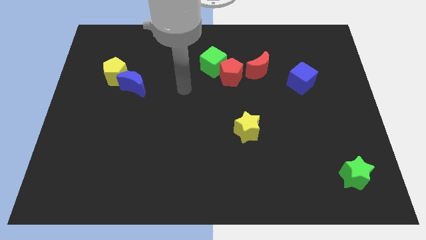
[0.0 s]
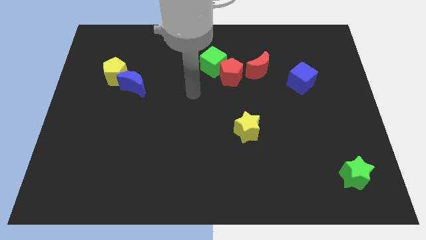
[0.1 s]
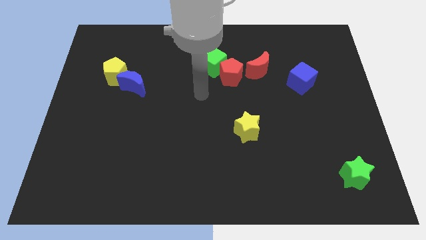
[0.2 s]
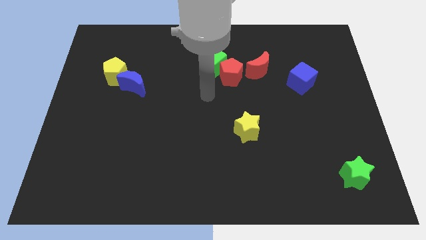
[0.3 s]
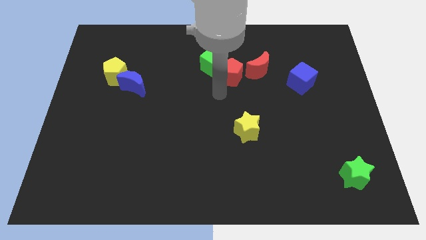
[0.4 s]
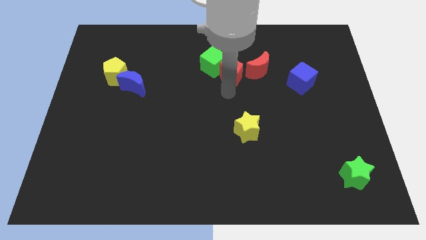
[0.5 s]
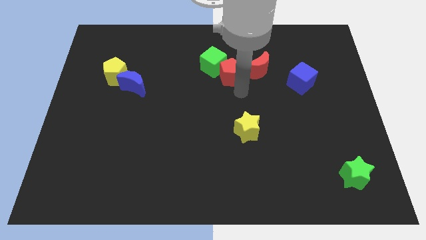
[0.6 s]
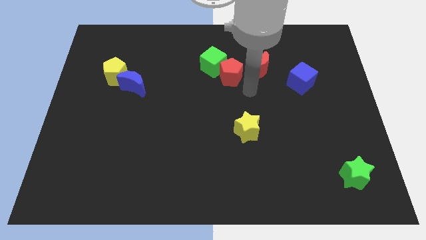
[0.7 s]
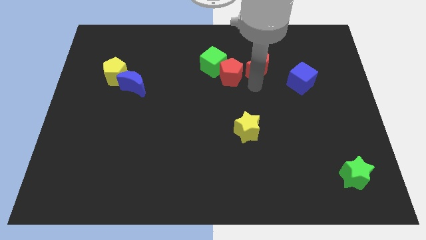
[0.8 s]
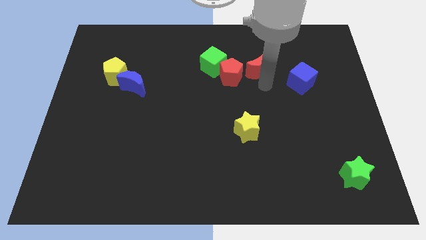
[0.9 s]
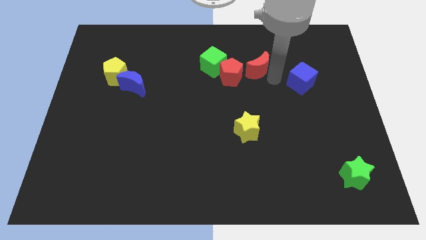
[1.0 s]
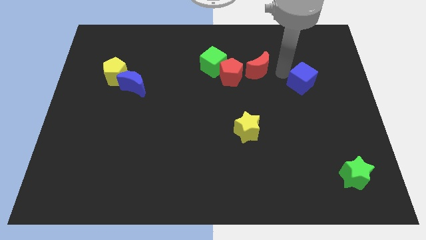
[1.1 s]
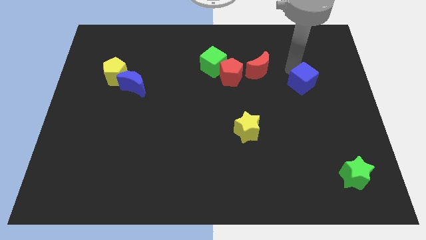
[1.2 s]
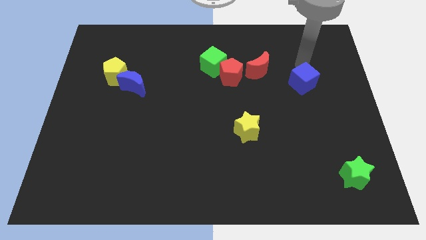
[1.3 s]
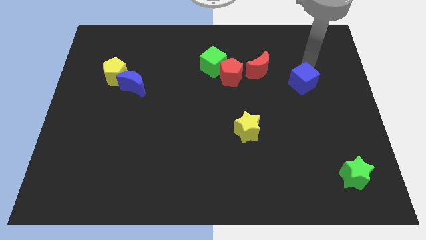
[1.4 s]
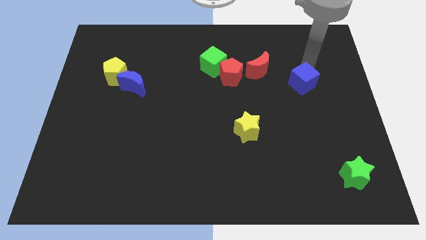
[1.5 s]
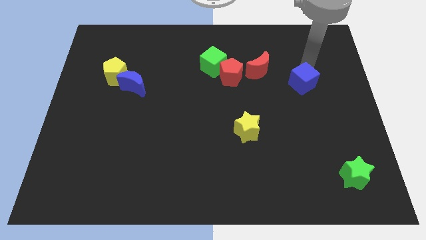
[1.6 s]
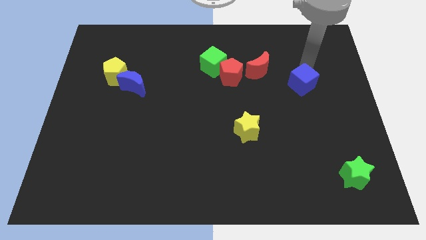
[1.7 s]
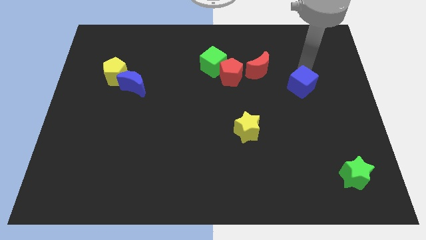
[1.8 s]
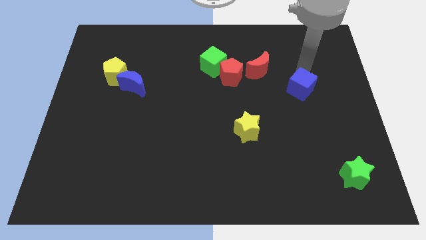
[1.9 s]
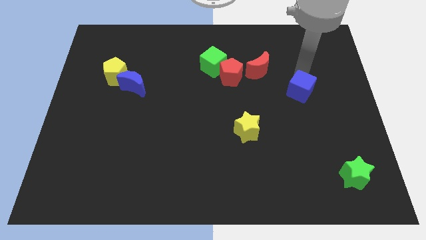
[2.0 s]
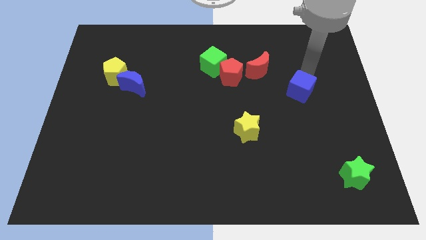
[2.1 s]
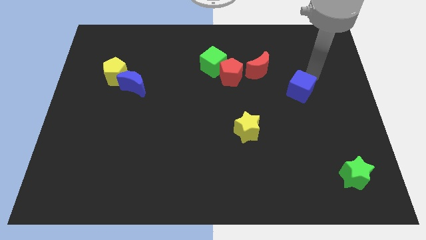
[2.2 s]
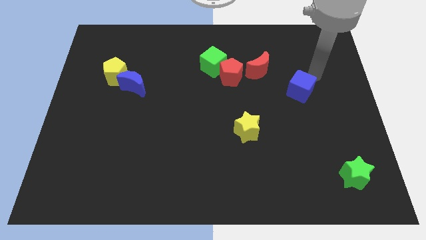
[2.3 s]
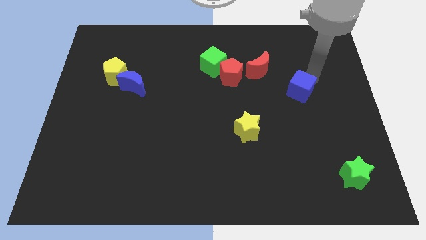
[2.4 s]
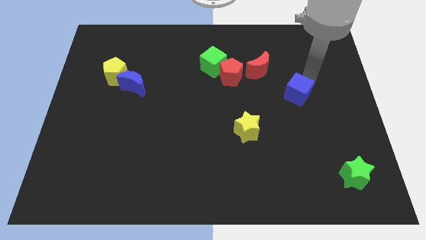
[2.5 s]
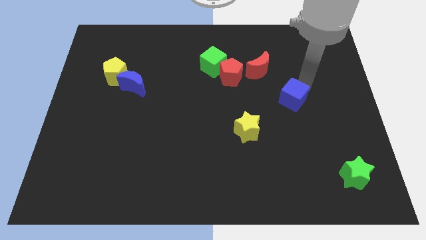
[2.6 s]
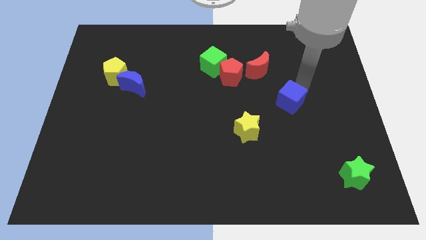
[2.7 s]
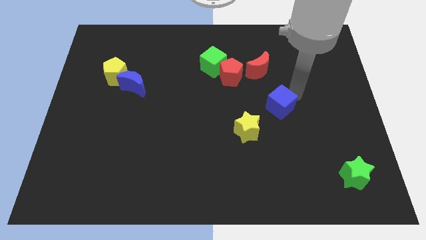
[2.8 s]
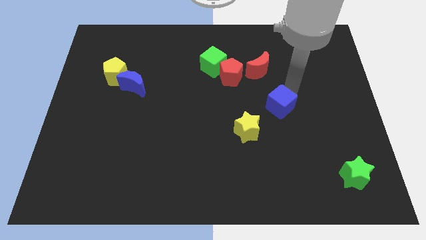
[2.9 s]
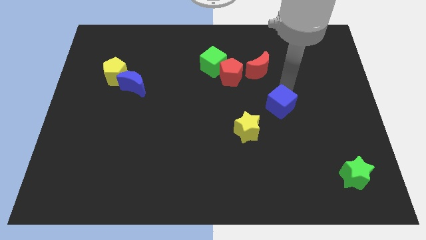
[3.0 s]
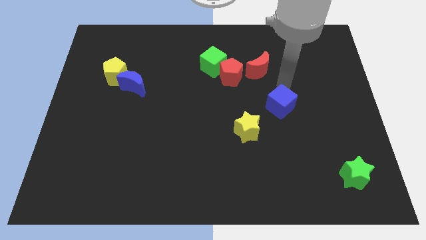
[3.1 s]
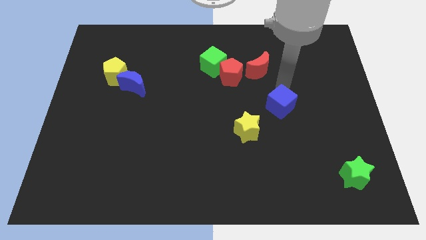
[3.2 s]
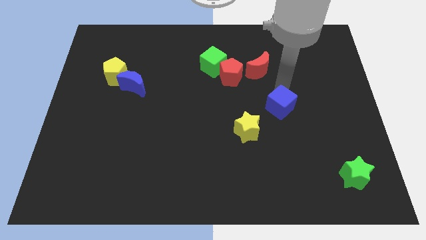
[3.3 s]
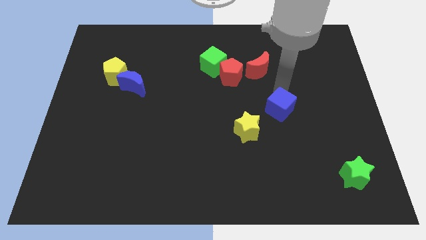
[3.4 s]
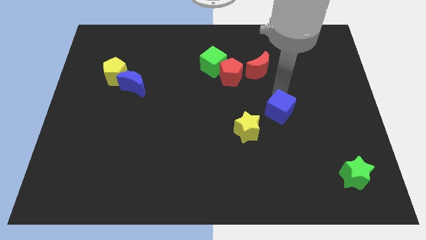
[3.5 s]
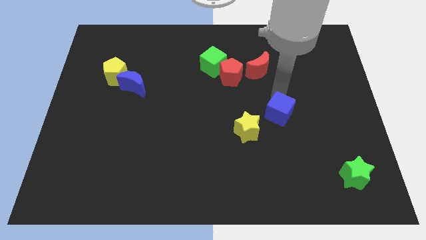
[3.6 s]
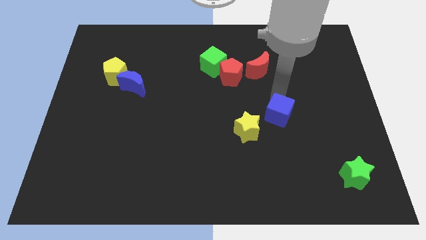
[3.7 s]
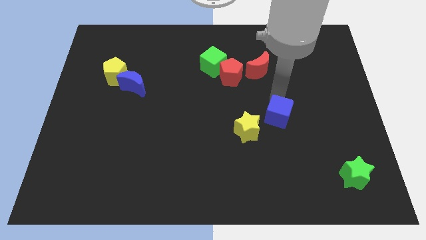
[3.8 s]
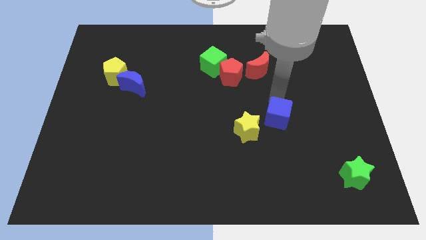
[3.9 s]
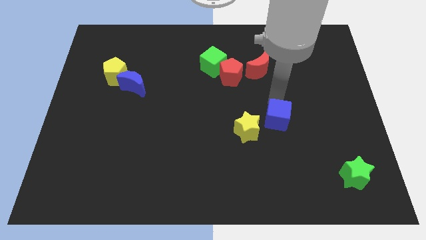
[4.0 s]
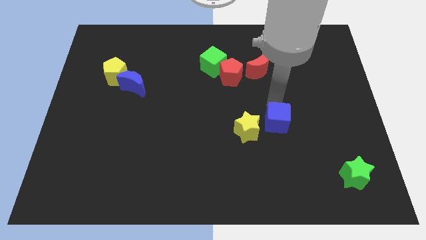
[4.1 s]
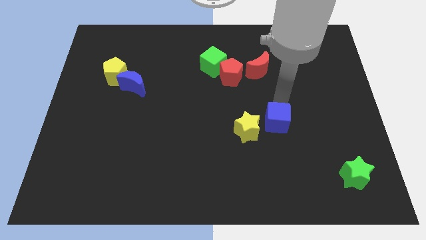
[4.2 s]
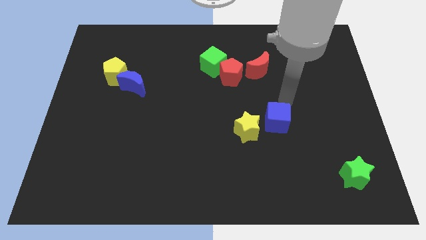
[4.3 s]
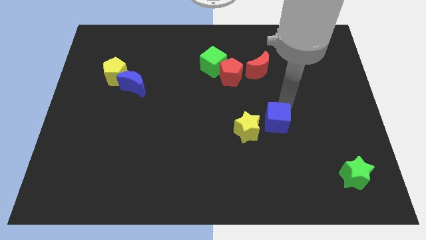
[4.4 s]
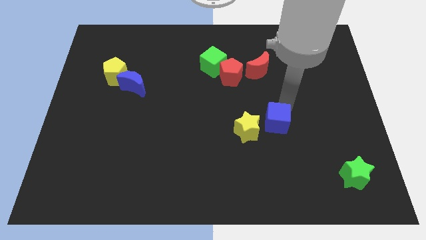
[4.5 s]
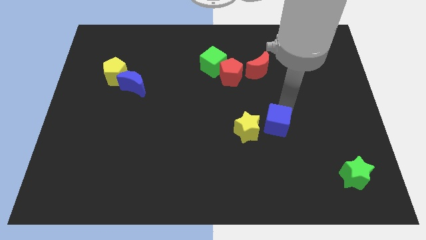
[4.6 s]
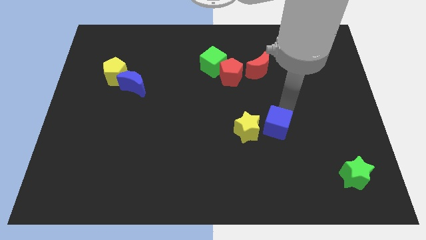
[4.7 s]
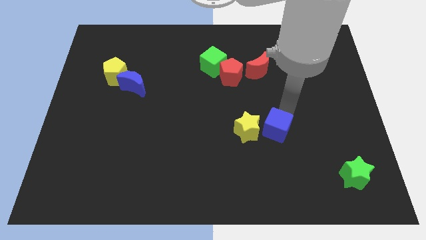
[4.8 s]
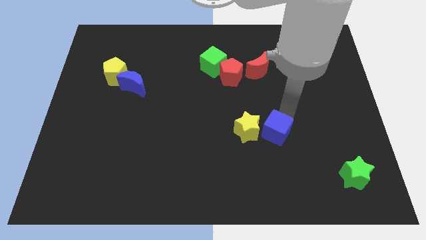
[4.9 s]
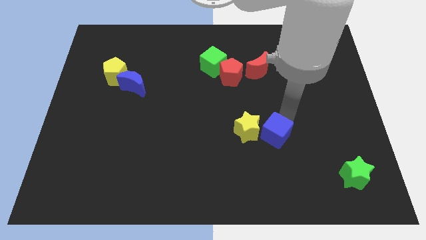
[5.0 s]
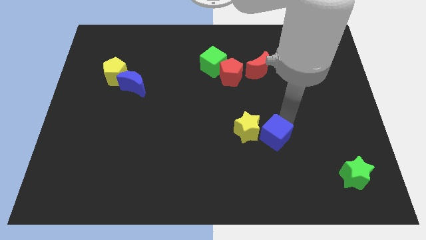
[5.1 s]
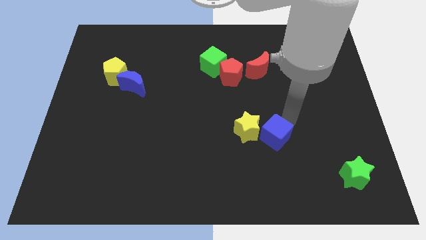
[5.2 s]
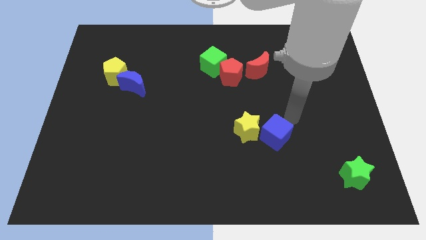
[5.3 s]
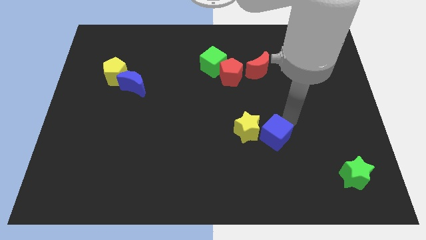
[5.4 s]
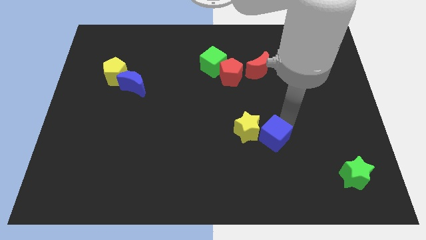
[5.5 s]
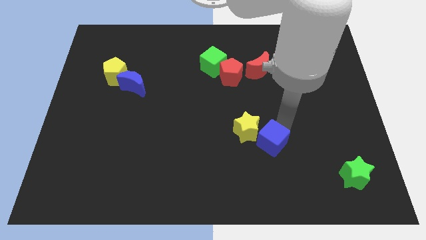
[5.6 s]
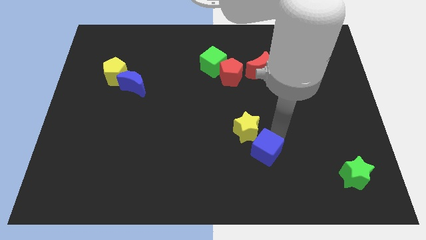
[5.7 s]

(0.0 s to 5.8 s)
put the blue cube to the bottom of the yellow star

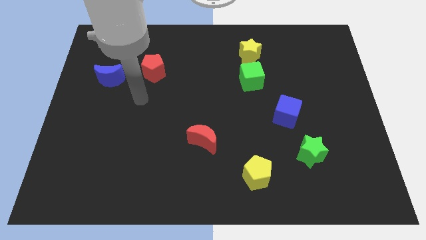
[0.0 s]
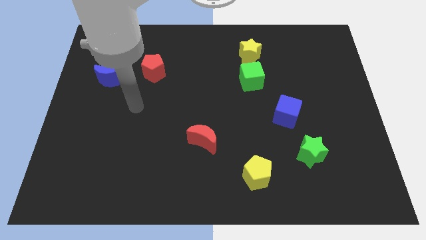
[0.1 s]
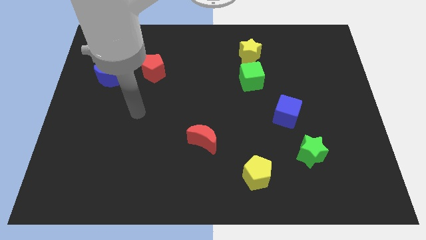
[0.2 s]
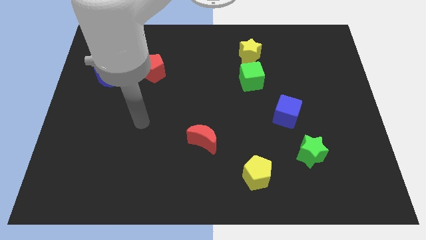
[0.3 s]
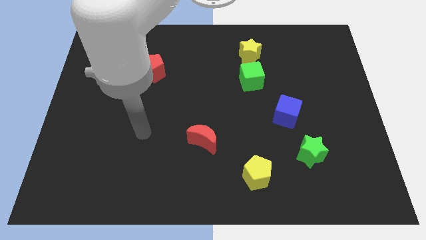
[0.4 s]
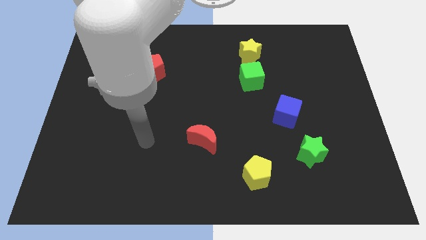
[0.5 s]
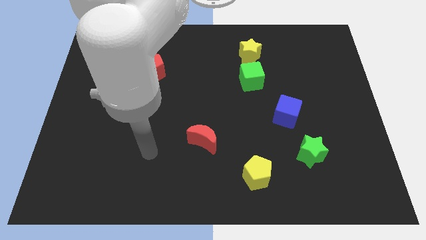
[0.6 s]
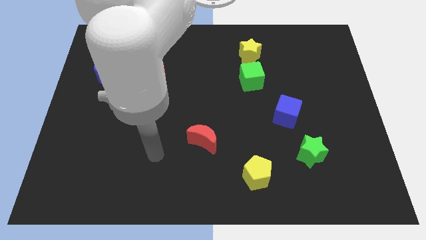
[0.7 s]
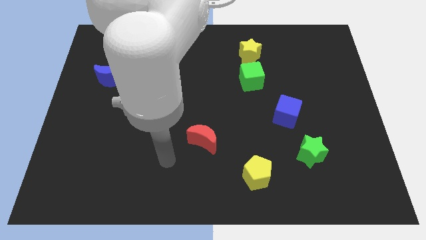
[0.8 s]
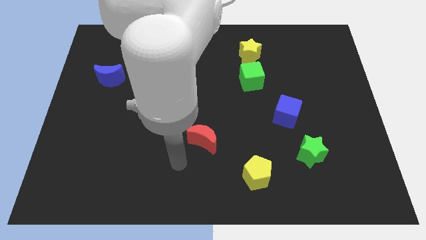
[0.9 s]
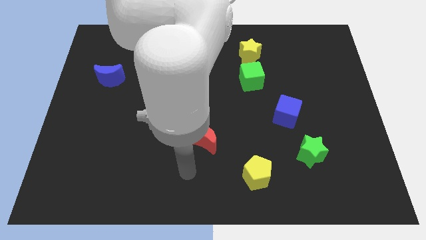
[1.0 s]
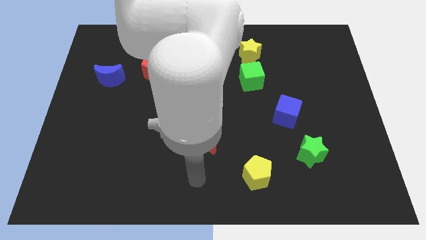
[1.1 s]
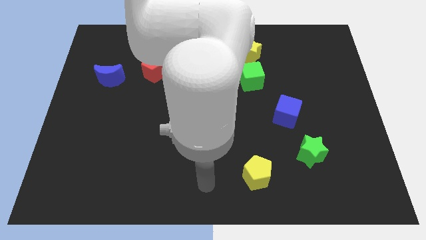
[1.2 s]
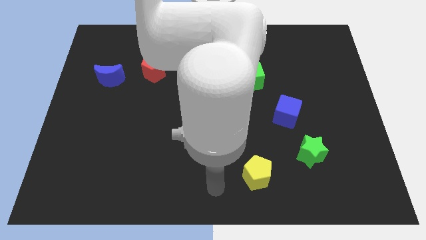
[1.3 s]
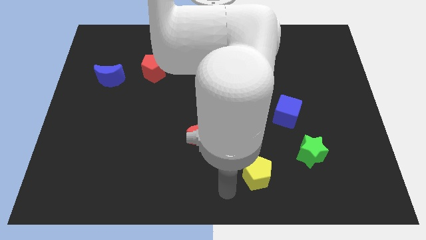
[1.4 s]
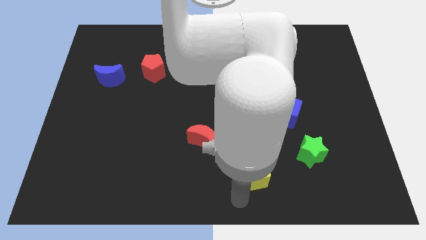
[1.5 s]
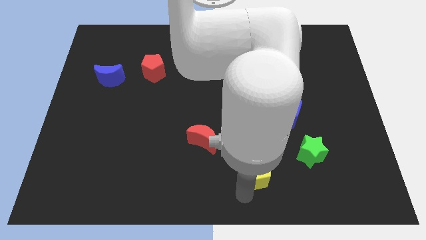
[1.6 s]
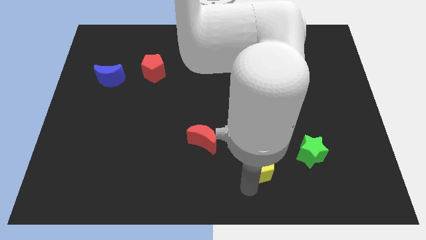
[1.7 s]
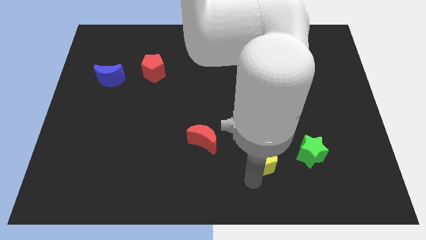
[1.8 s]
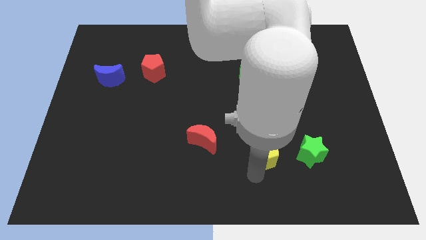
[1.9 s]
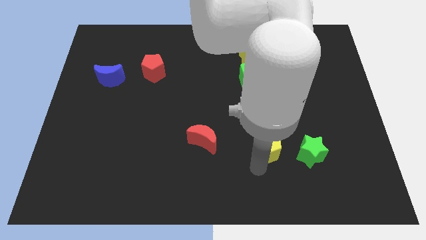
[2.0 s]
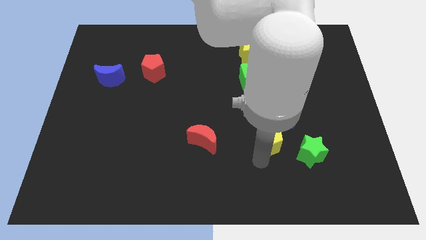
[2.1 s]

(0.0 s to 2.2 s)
slide the yellow pentagon to the top left side of the green star
